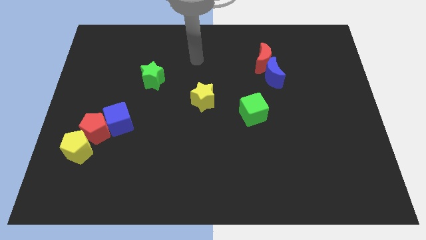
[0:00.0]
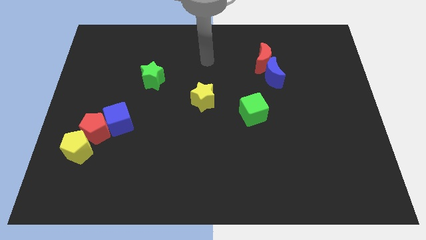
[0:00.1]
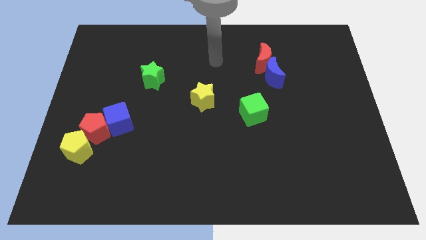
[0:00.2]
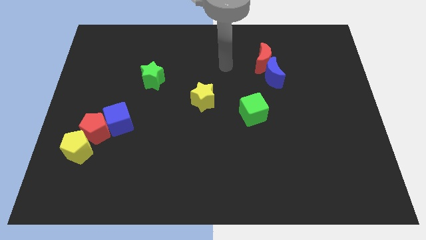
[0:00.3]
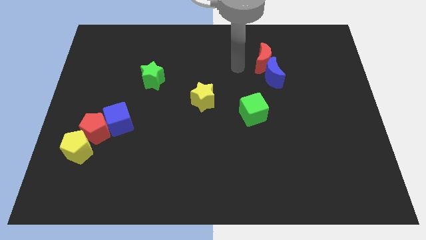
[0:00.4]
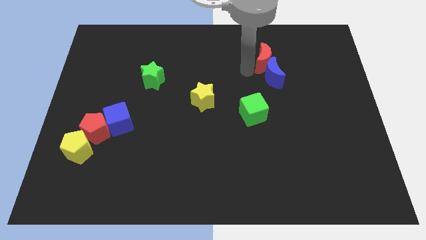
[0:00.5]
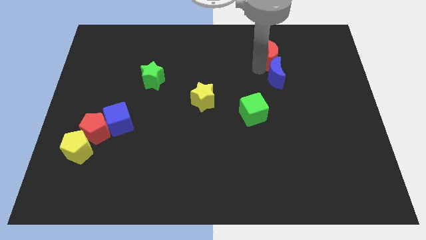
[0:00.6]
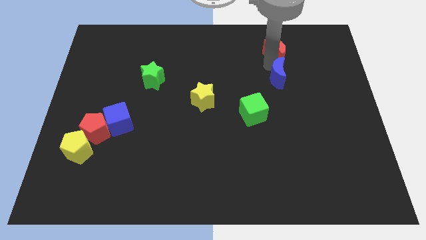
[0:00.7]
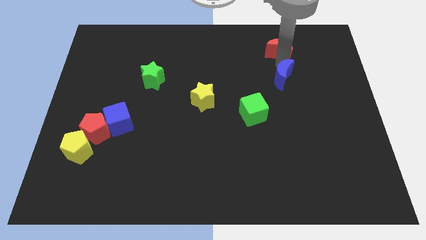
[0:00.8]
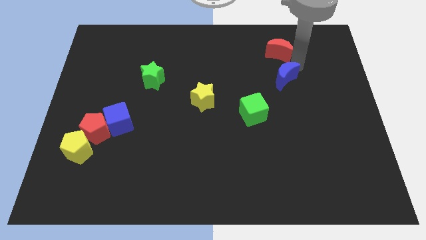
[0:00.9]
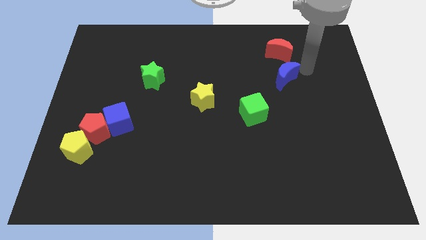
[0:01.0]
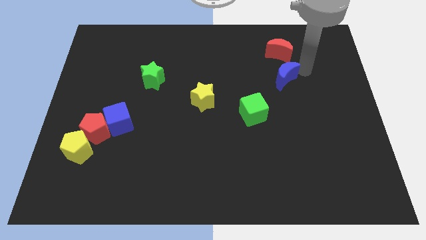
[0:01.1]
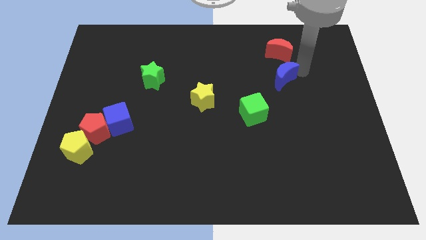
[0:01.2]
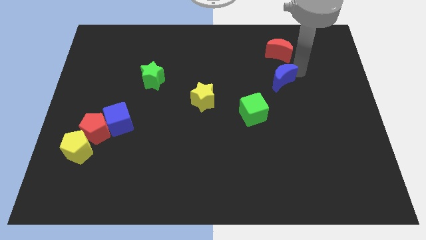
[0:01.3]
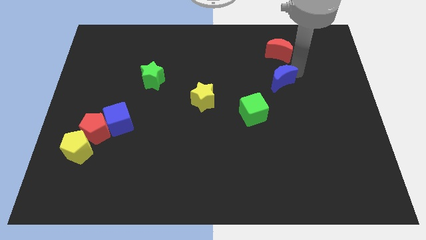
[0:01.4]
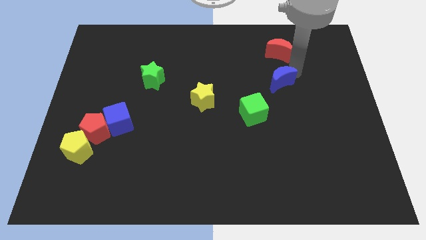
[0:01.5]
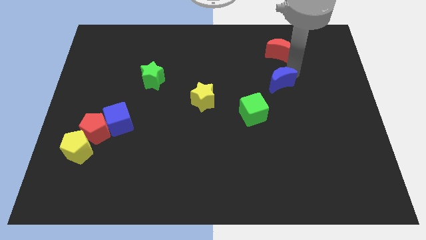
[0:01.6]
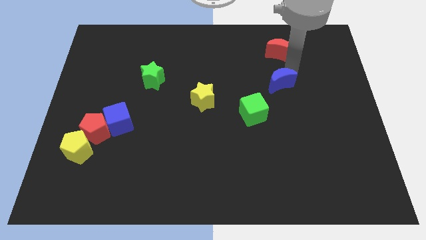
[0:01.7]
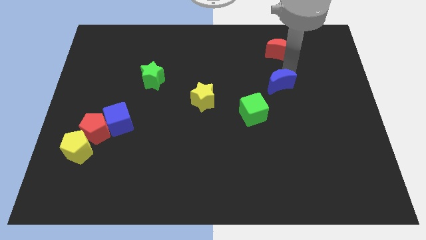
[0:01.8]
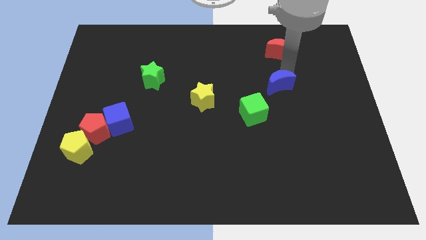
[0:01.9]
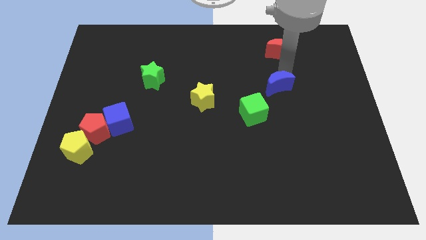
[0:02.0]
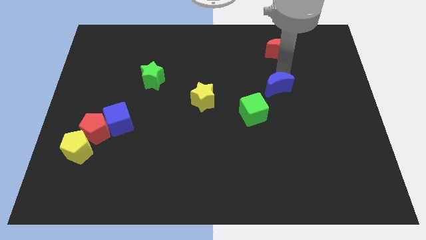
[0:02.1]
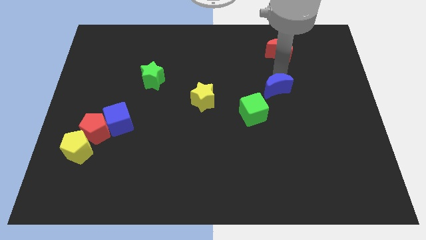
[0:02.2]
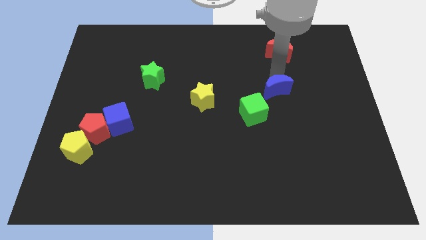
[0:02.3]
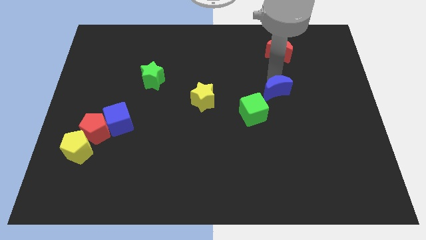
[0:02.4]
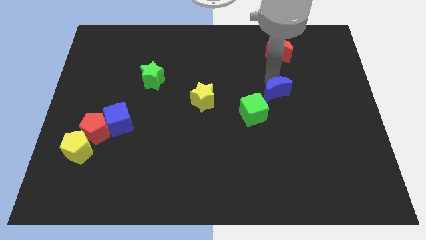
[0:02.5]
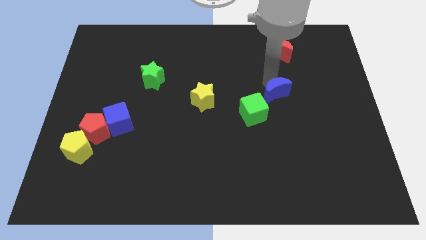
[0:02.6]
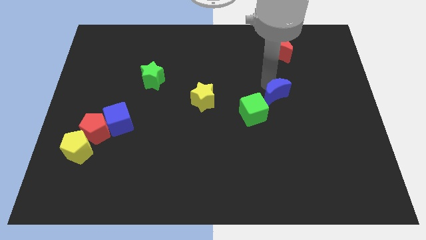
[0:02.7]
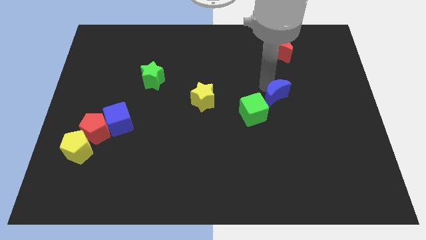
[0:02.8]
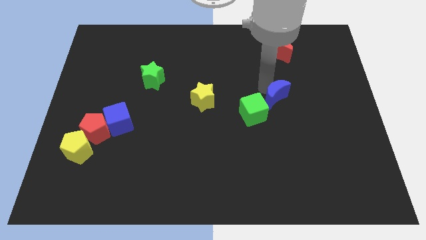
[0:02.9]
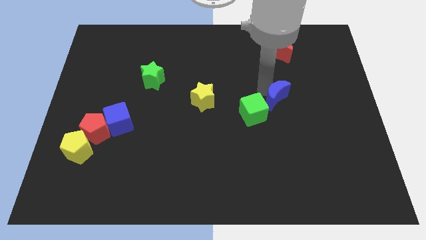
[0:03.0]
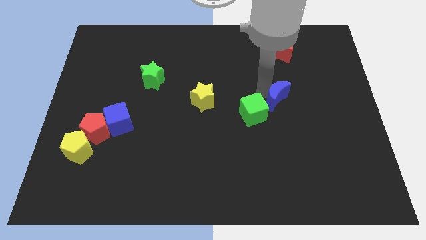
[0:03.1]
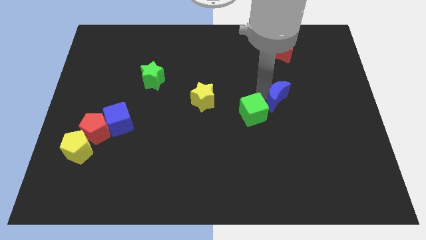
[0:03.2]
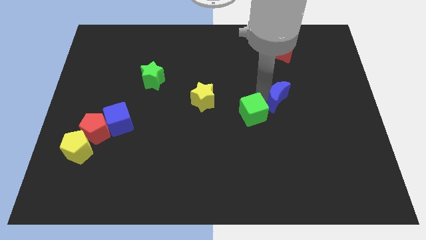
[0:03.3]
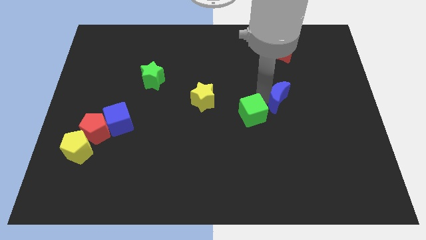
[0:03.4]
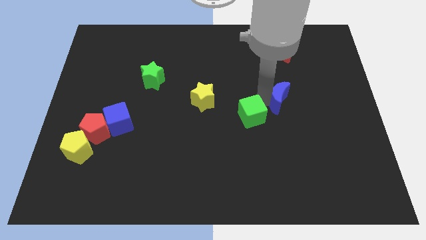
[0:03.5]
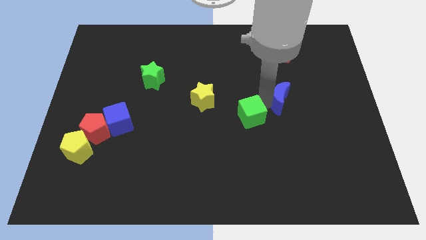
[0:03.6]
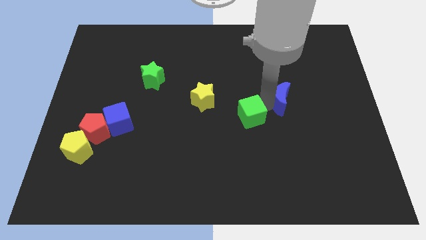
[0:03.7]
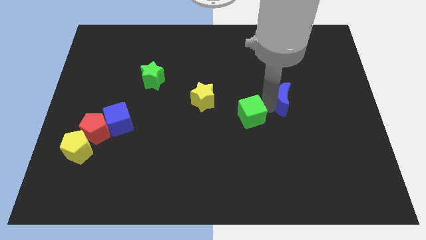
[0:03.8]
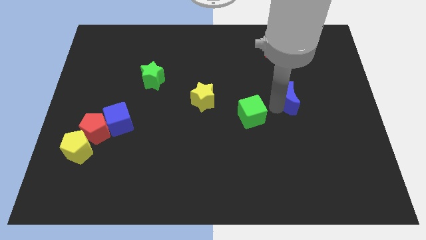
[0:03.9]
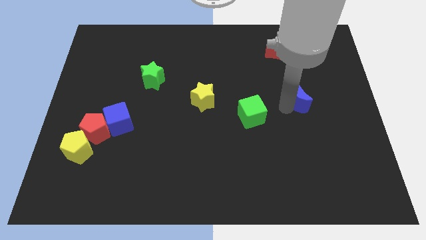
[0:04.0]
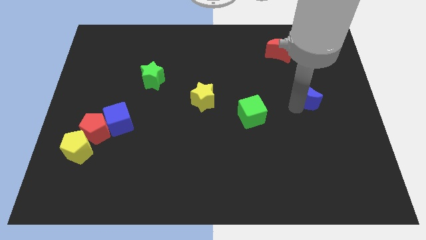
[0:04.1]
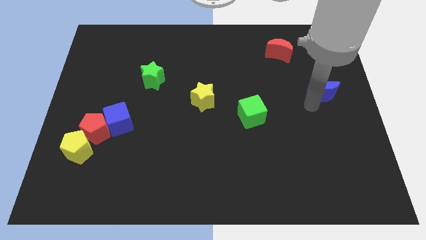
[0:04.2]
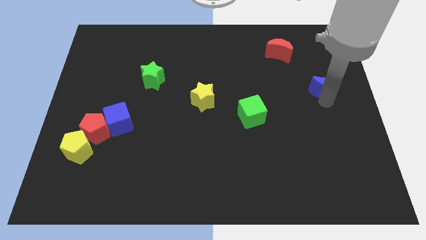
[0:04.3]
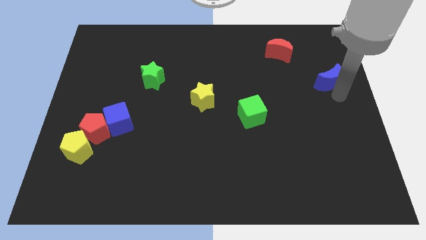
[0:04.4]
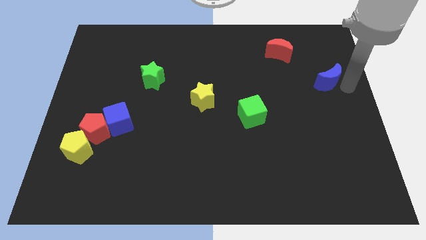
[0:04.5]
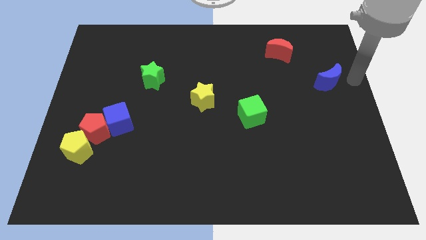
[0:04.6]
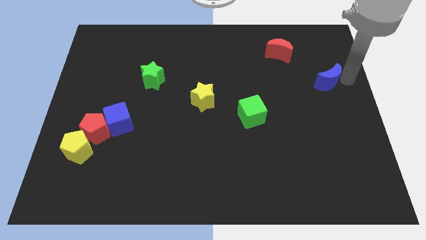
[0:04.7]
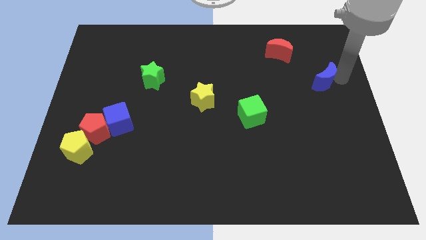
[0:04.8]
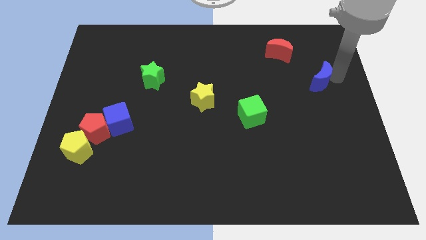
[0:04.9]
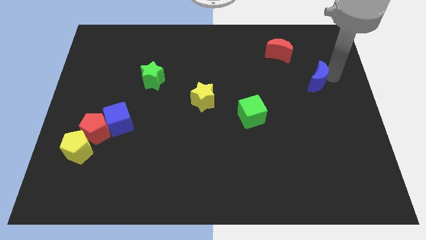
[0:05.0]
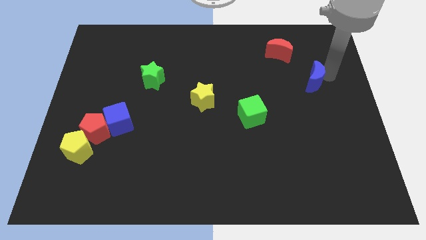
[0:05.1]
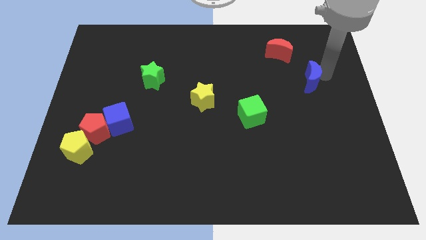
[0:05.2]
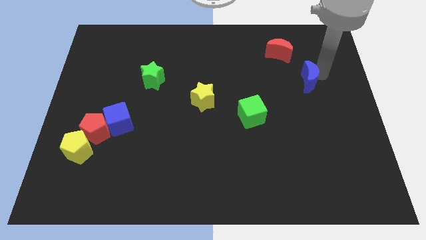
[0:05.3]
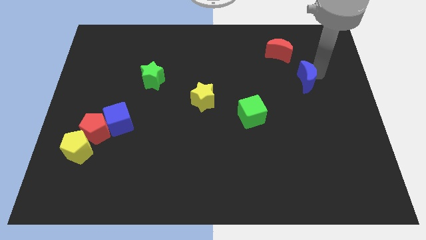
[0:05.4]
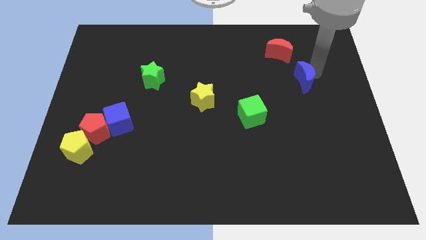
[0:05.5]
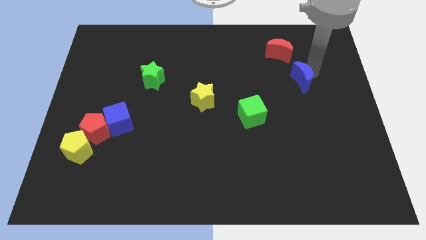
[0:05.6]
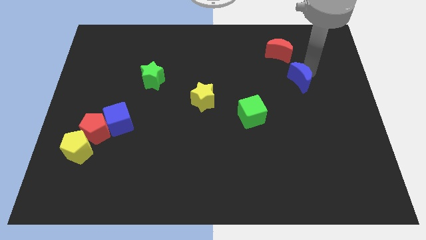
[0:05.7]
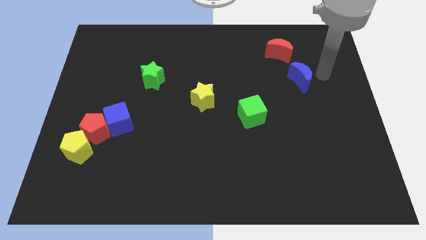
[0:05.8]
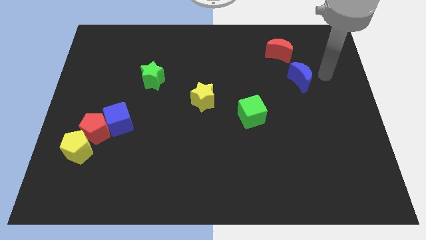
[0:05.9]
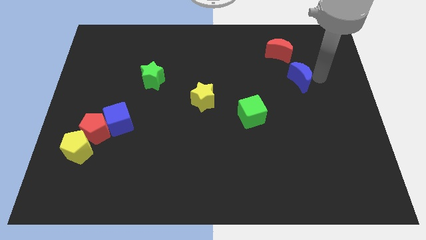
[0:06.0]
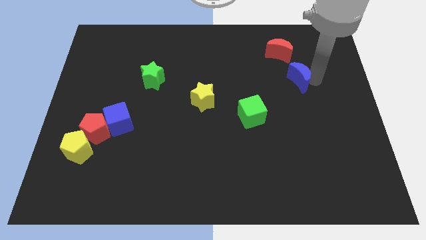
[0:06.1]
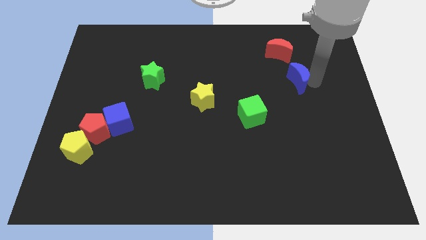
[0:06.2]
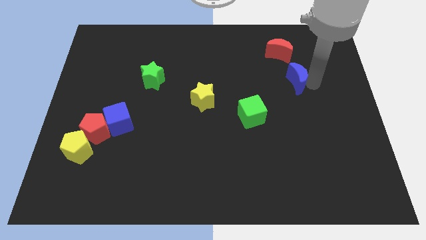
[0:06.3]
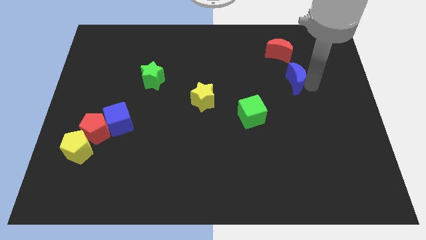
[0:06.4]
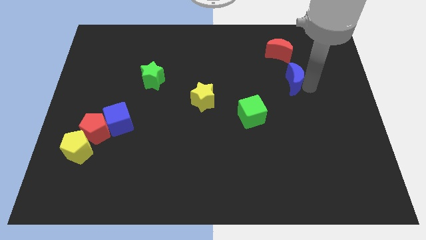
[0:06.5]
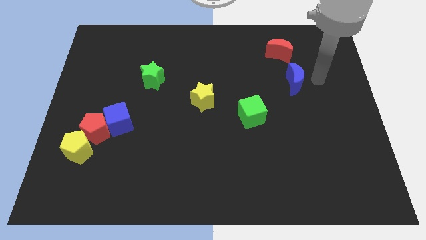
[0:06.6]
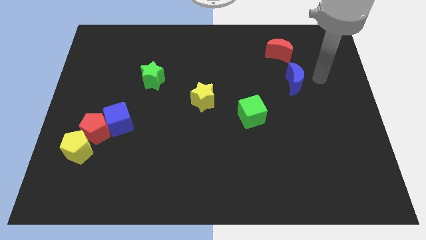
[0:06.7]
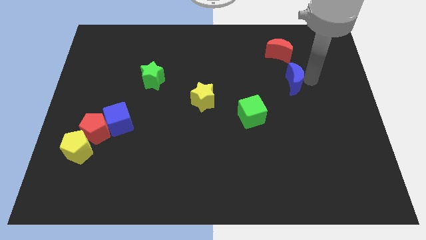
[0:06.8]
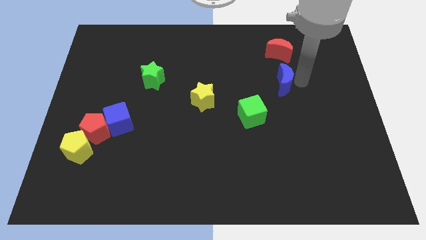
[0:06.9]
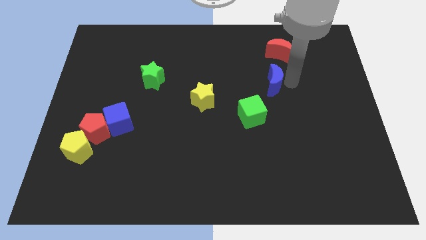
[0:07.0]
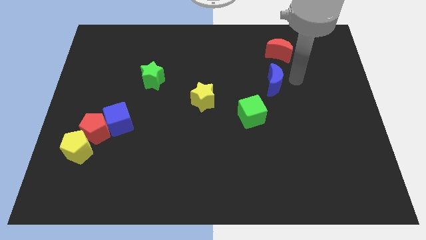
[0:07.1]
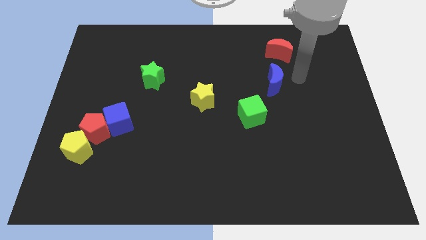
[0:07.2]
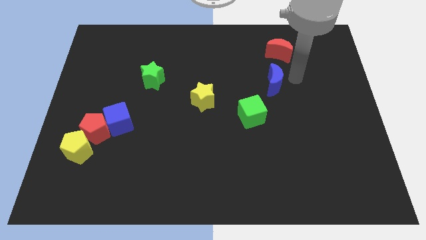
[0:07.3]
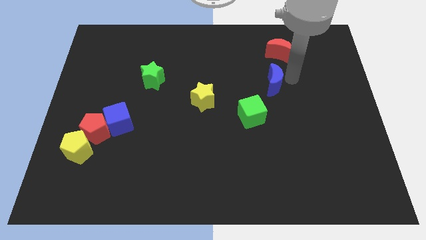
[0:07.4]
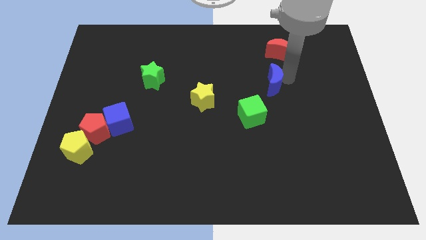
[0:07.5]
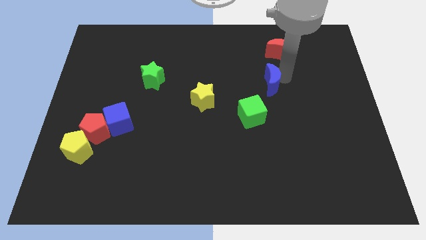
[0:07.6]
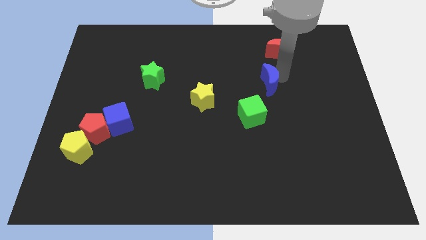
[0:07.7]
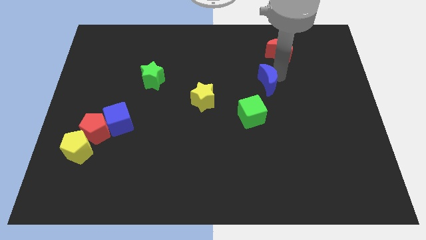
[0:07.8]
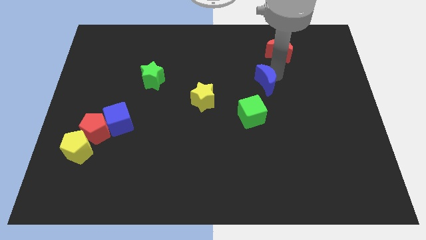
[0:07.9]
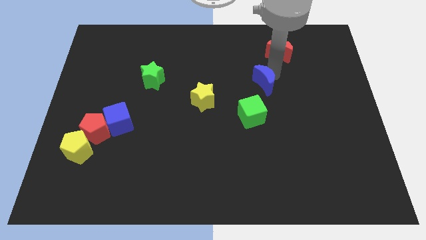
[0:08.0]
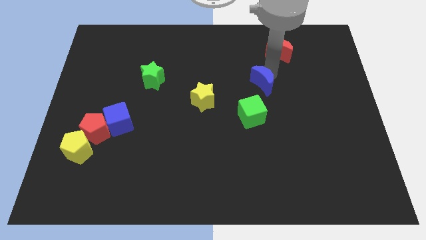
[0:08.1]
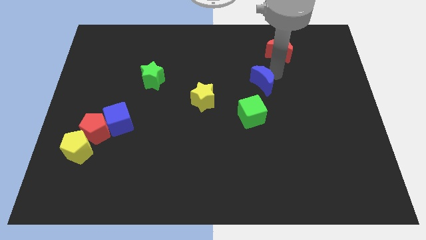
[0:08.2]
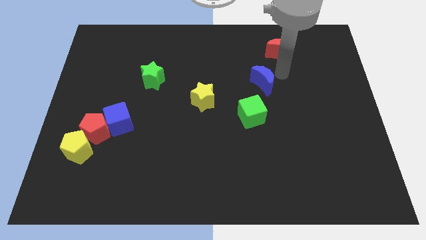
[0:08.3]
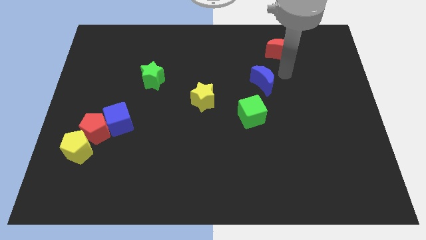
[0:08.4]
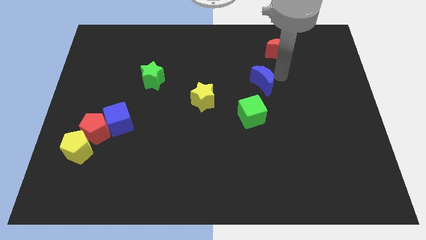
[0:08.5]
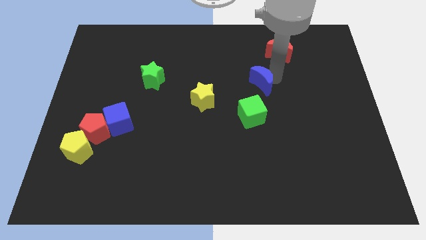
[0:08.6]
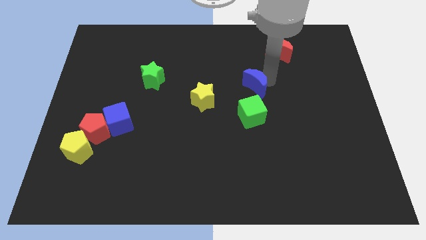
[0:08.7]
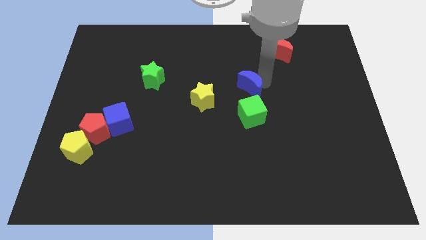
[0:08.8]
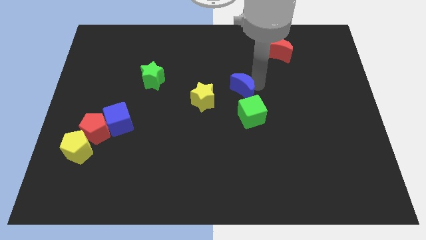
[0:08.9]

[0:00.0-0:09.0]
push the blue moon to the top left side of the green cube
